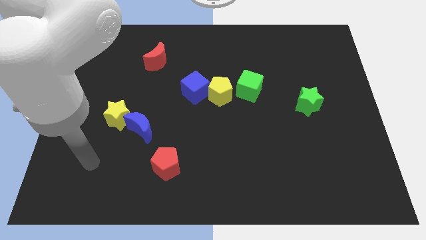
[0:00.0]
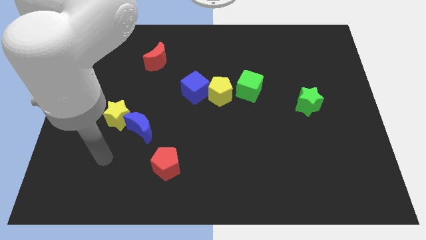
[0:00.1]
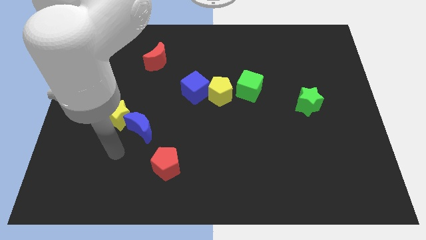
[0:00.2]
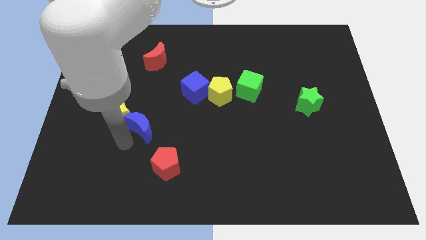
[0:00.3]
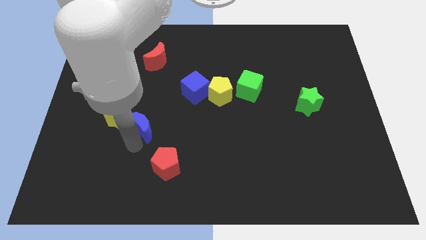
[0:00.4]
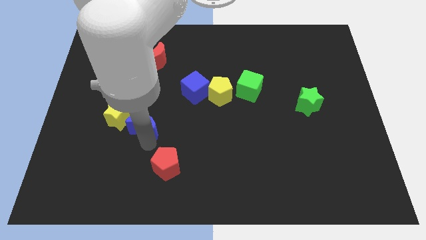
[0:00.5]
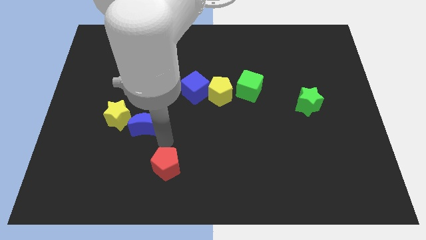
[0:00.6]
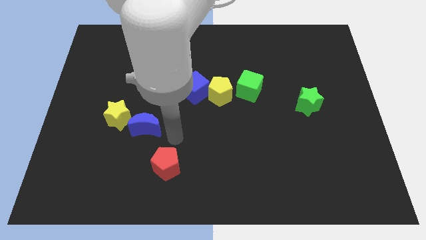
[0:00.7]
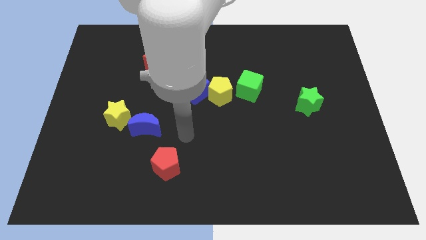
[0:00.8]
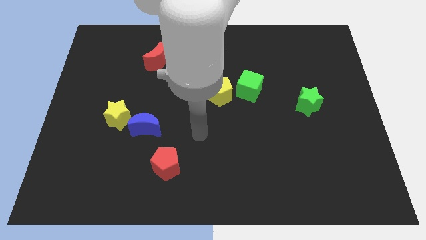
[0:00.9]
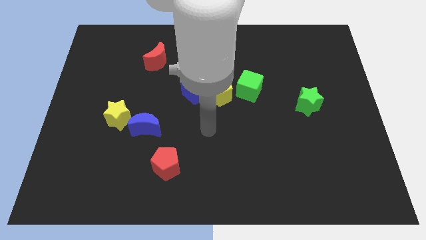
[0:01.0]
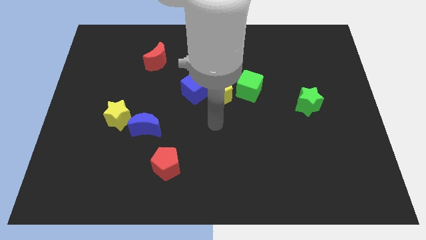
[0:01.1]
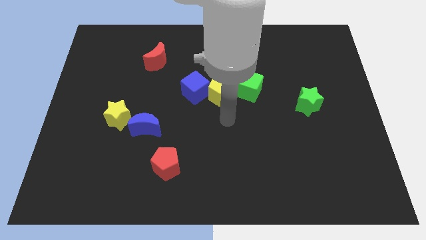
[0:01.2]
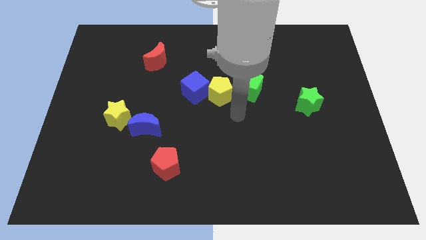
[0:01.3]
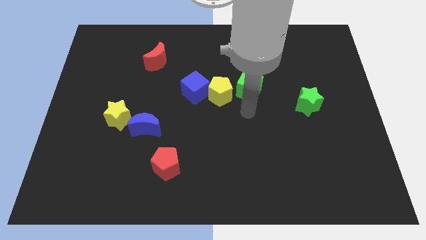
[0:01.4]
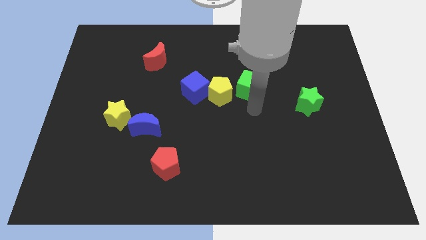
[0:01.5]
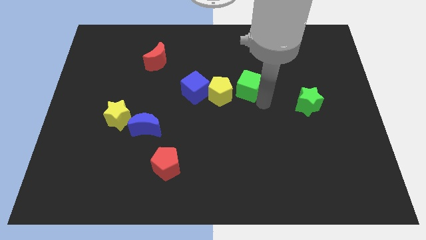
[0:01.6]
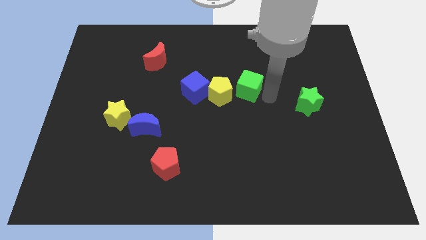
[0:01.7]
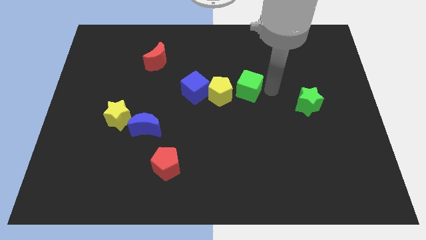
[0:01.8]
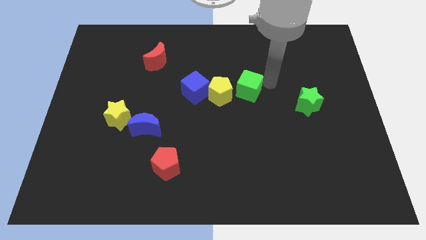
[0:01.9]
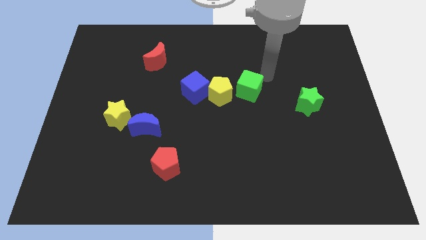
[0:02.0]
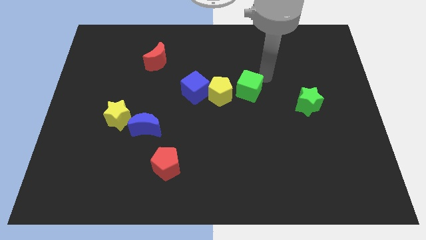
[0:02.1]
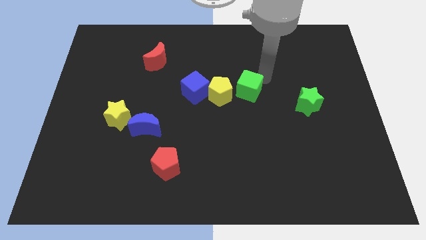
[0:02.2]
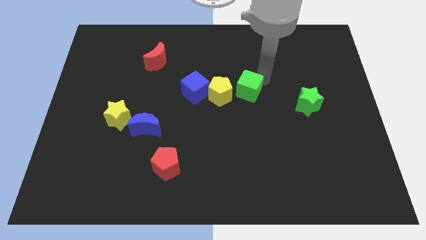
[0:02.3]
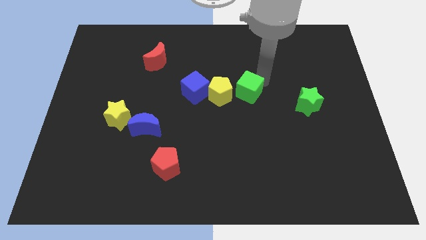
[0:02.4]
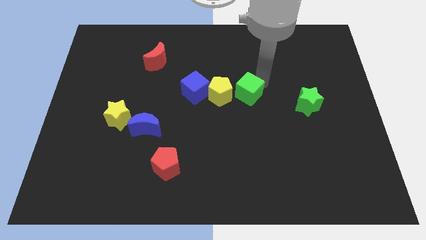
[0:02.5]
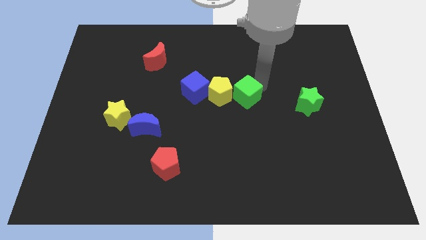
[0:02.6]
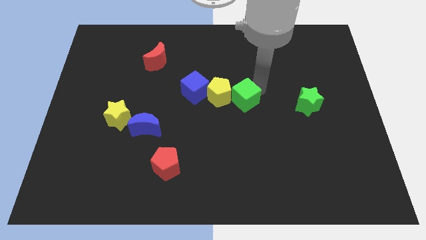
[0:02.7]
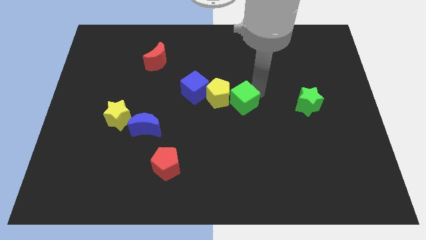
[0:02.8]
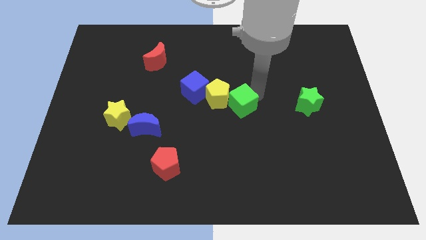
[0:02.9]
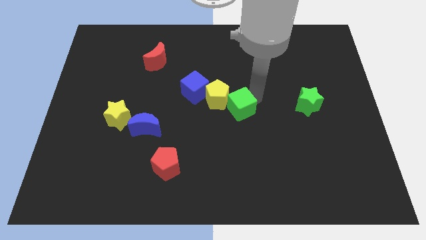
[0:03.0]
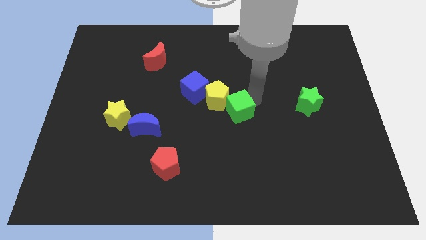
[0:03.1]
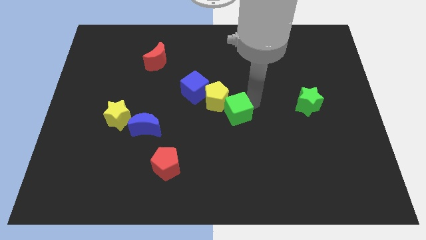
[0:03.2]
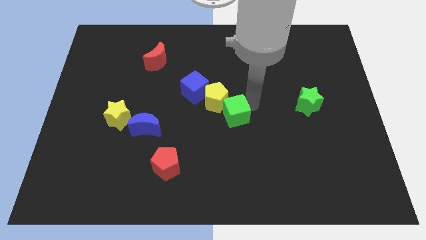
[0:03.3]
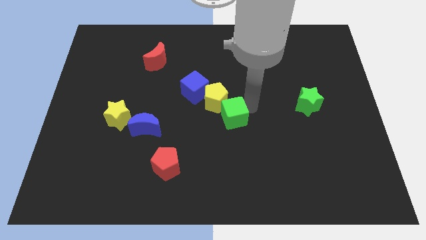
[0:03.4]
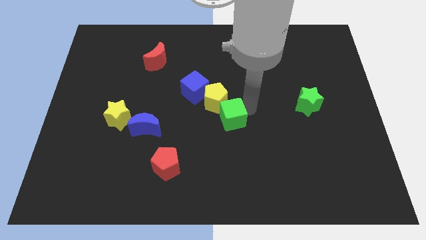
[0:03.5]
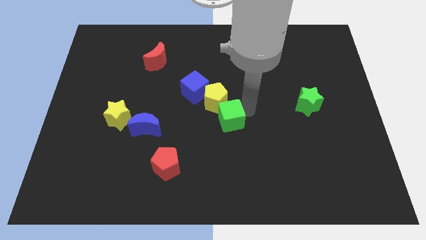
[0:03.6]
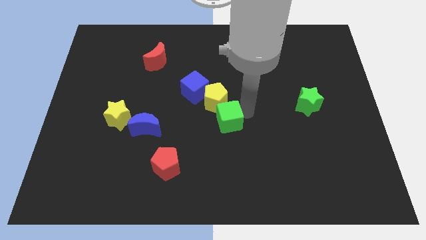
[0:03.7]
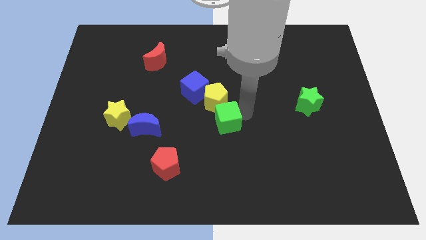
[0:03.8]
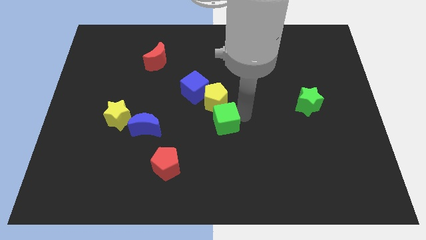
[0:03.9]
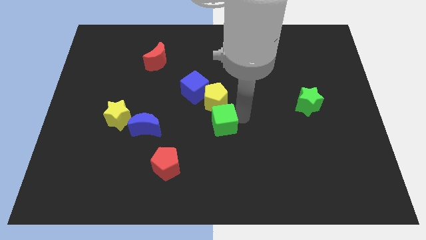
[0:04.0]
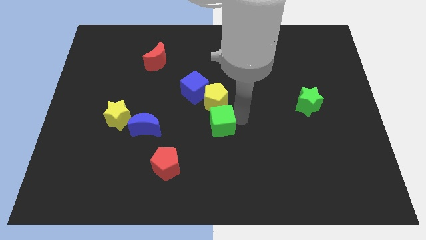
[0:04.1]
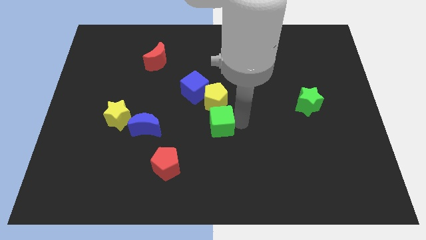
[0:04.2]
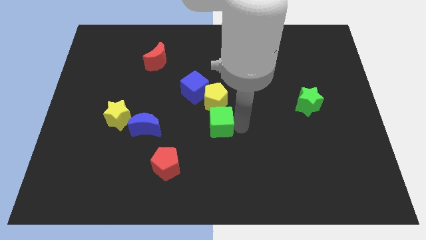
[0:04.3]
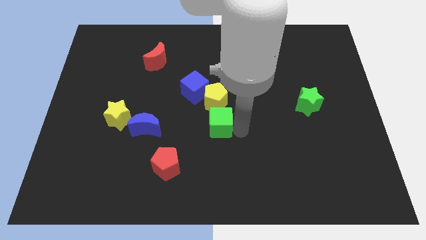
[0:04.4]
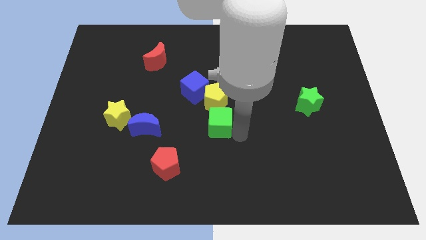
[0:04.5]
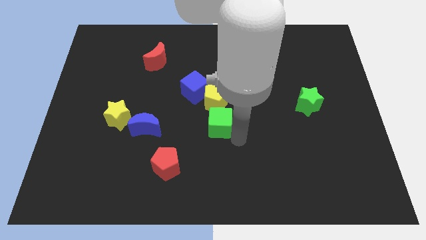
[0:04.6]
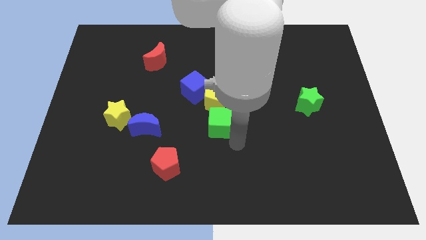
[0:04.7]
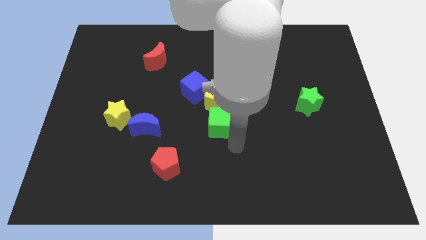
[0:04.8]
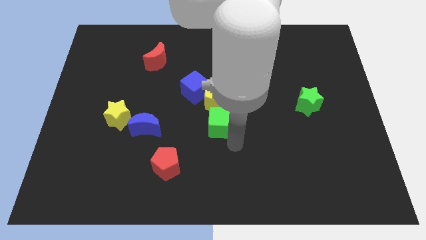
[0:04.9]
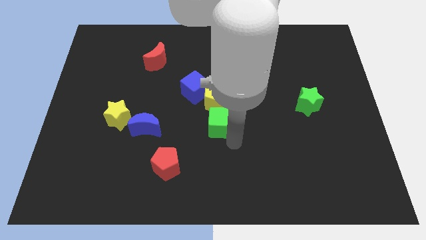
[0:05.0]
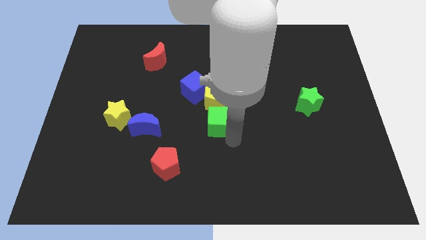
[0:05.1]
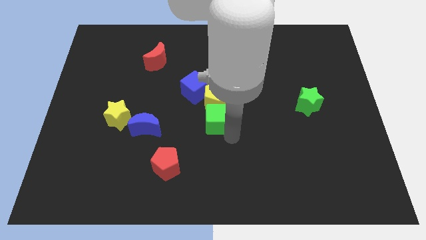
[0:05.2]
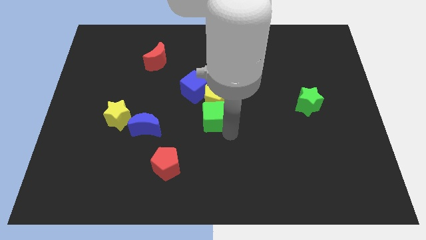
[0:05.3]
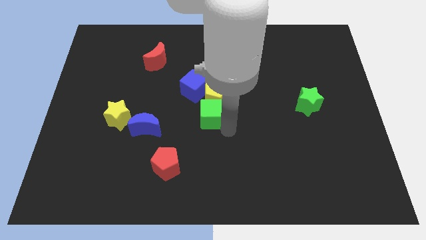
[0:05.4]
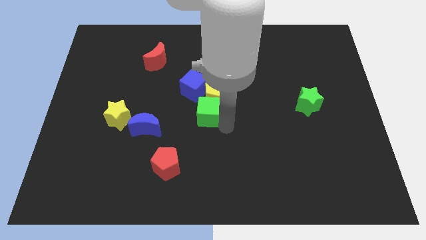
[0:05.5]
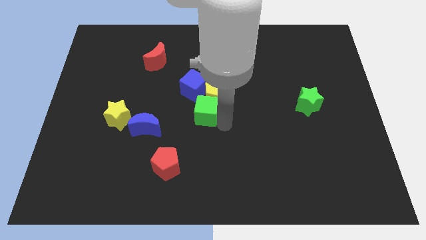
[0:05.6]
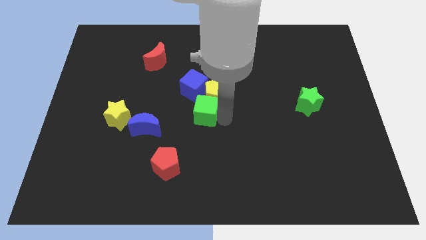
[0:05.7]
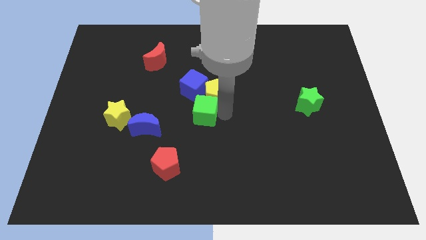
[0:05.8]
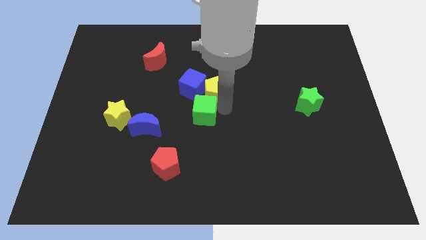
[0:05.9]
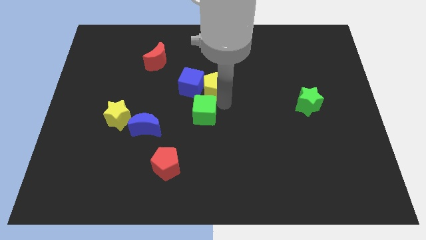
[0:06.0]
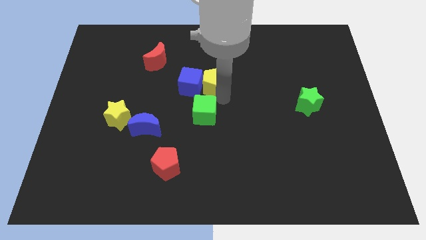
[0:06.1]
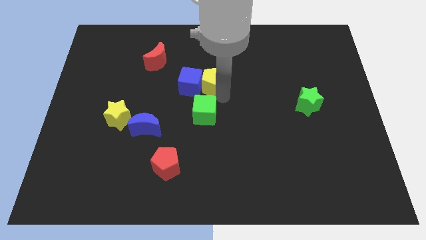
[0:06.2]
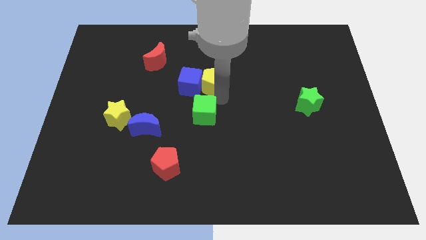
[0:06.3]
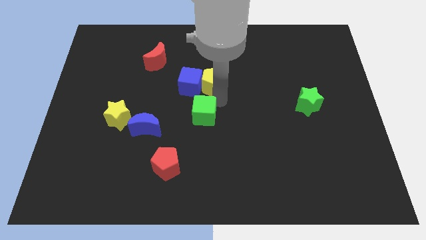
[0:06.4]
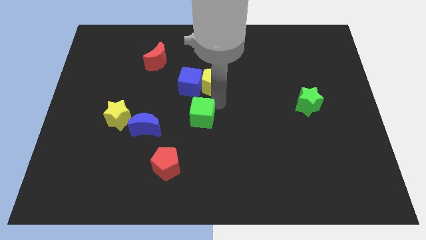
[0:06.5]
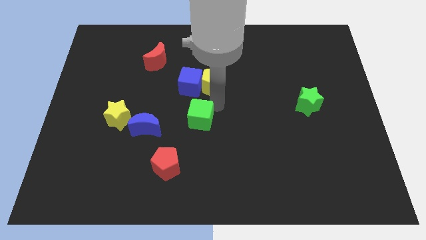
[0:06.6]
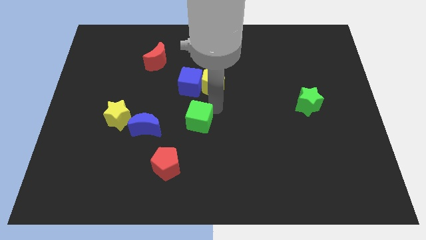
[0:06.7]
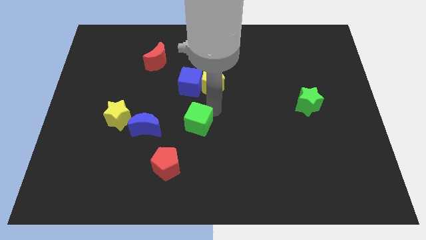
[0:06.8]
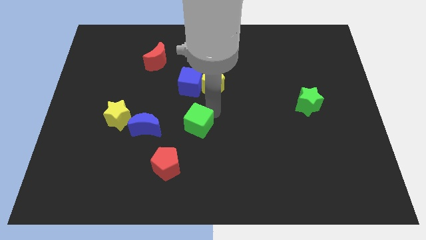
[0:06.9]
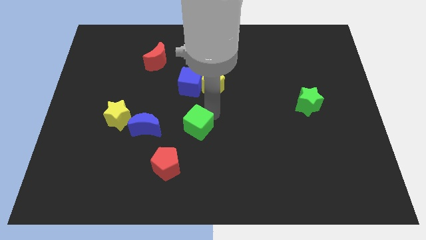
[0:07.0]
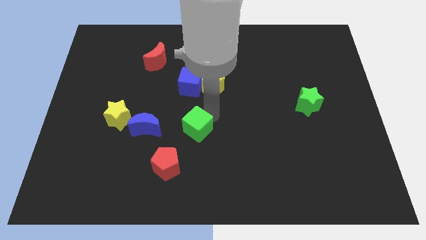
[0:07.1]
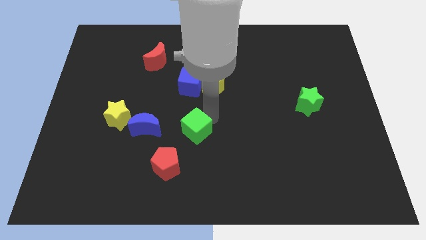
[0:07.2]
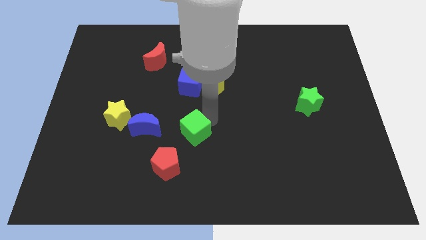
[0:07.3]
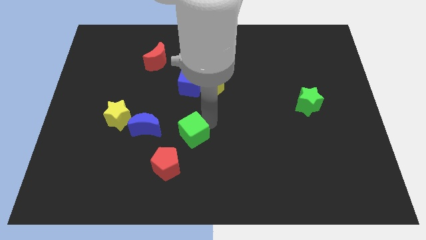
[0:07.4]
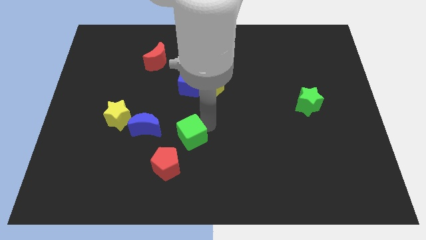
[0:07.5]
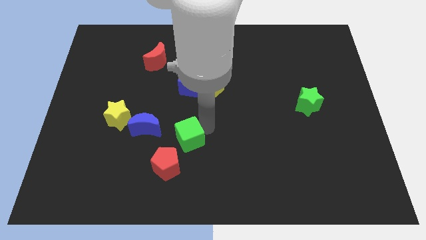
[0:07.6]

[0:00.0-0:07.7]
push the green cube downwards and to the left
